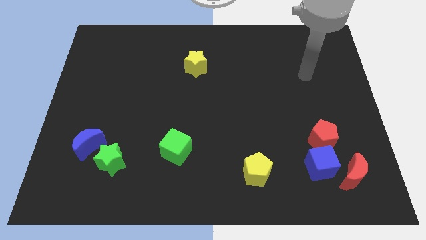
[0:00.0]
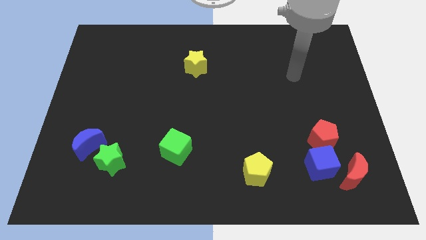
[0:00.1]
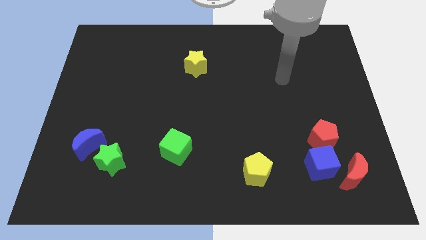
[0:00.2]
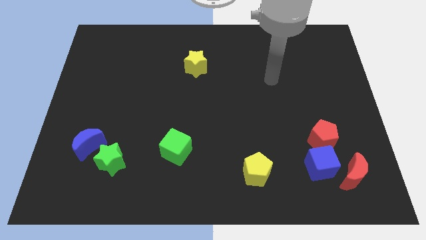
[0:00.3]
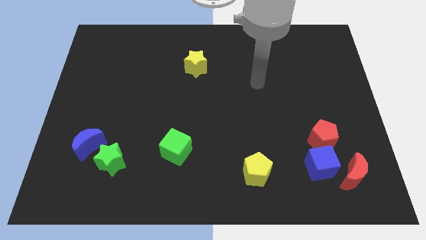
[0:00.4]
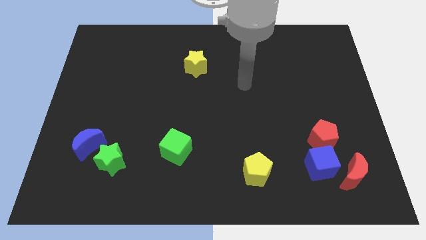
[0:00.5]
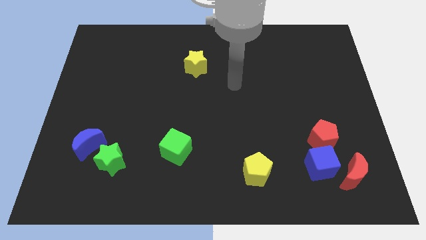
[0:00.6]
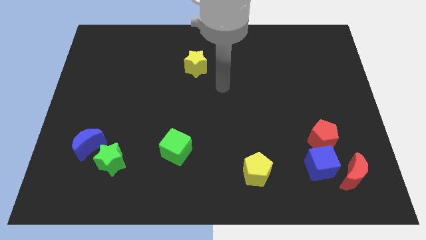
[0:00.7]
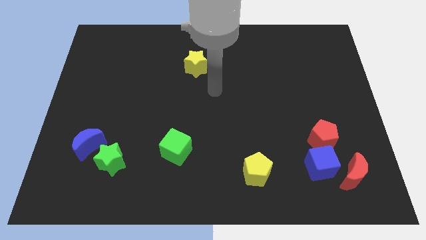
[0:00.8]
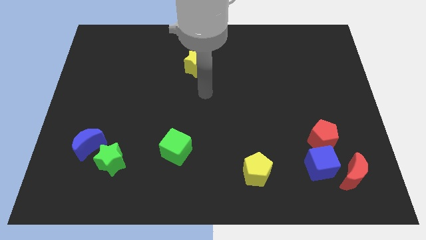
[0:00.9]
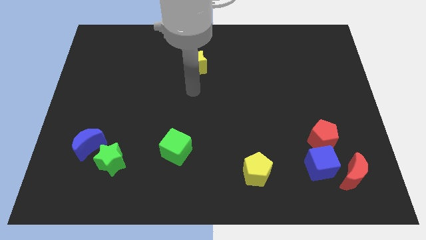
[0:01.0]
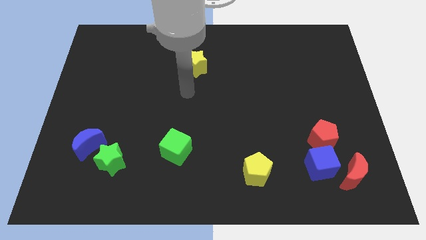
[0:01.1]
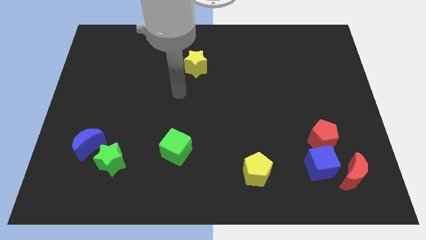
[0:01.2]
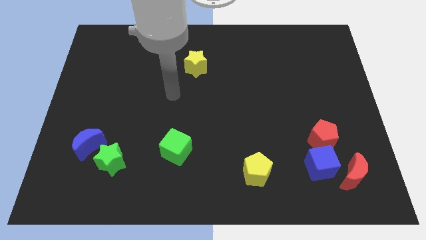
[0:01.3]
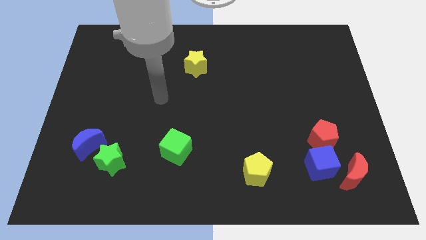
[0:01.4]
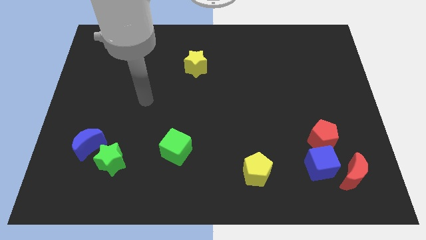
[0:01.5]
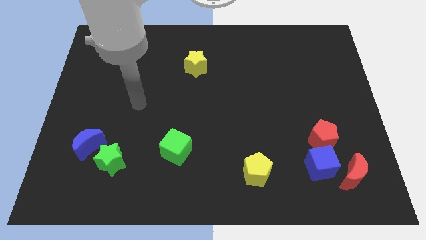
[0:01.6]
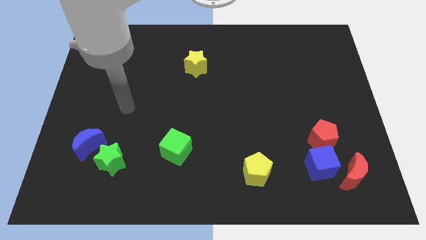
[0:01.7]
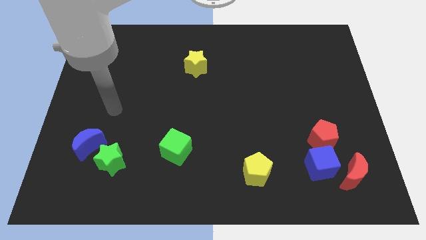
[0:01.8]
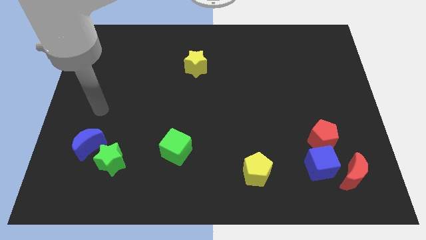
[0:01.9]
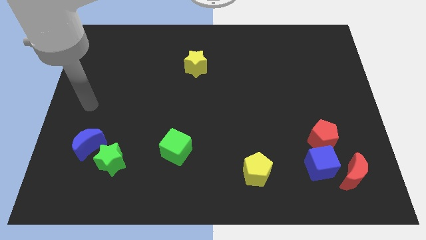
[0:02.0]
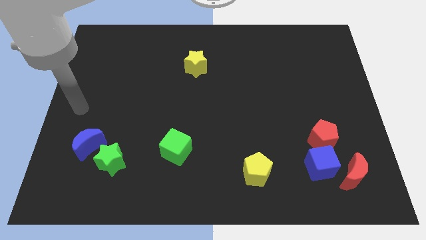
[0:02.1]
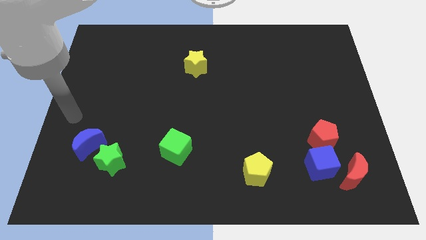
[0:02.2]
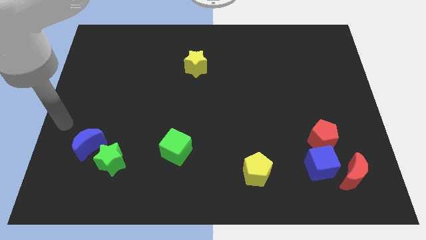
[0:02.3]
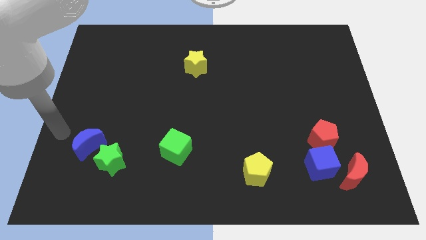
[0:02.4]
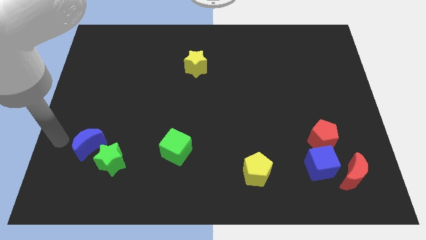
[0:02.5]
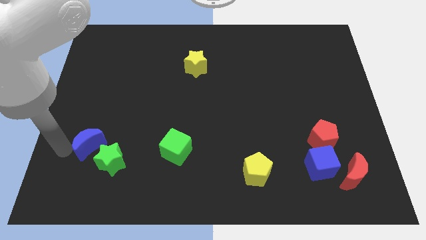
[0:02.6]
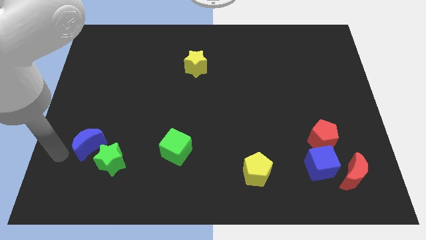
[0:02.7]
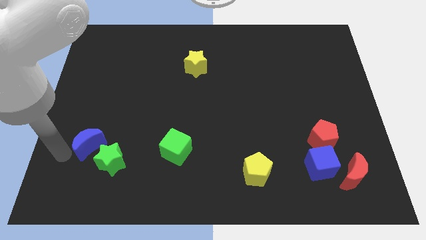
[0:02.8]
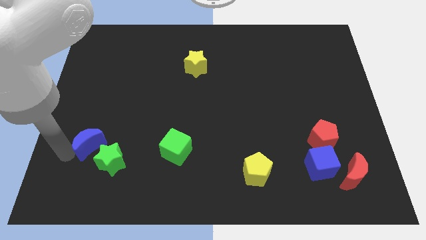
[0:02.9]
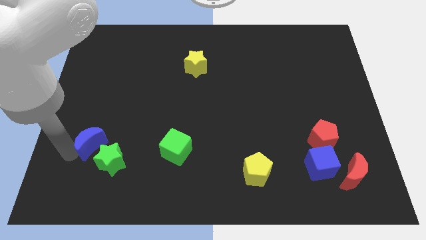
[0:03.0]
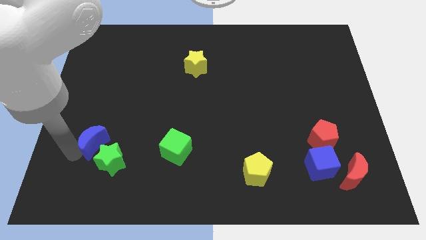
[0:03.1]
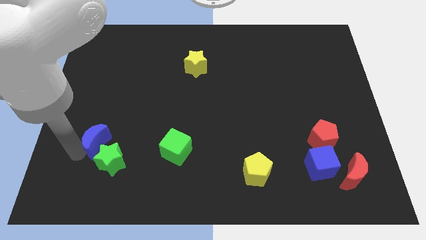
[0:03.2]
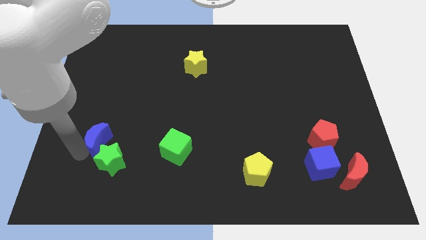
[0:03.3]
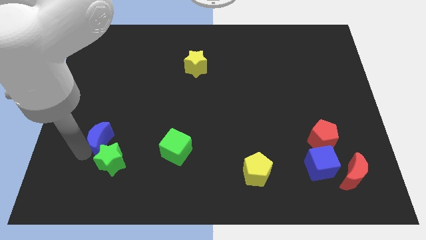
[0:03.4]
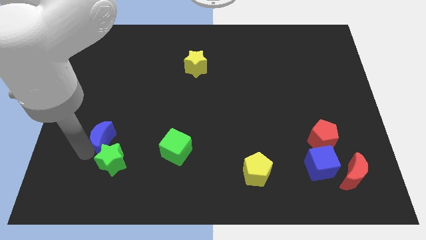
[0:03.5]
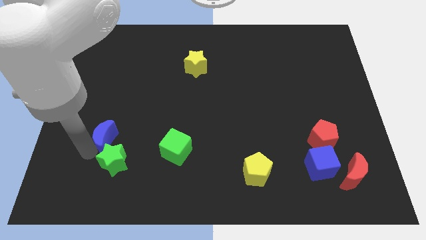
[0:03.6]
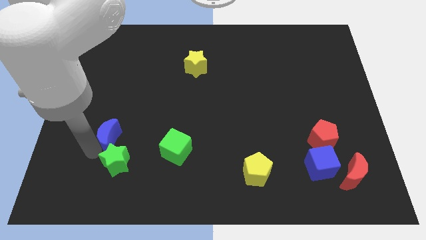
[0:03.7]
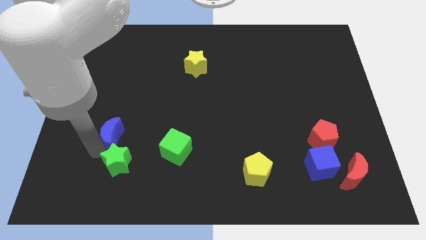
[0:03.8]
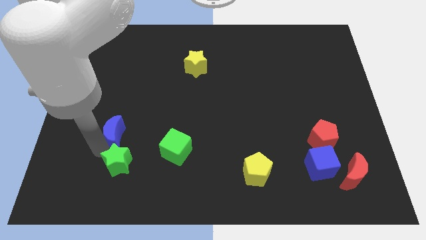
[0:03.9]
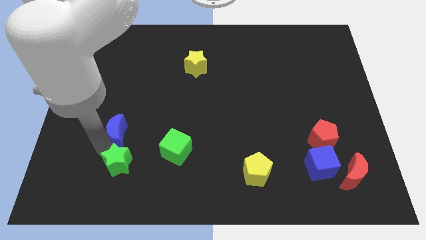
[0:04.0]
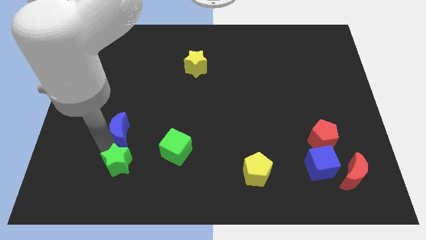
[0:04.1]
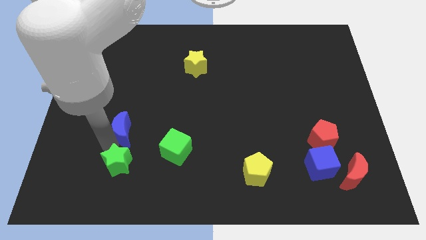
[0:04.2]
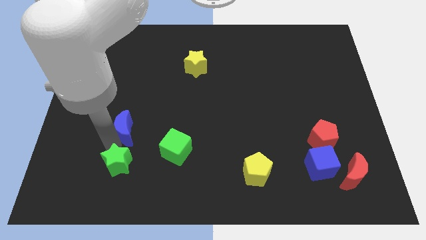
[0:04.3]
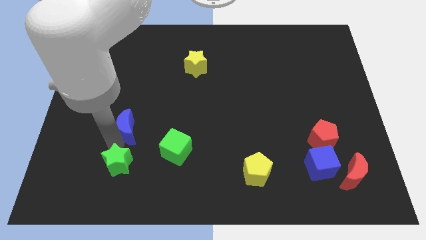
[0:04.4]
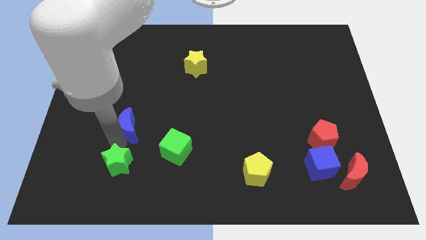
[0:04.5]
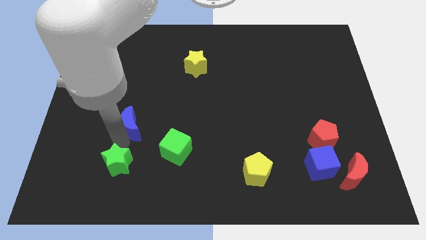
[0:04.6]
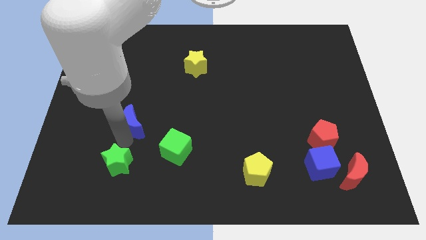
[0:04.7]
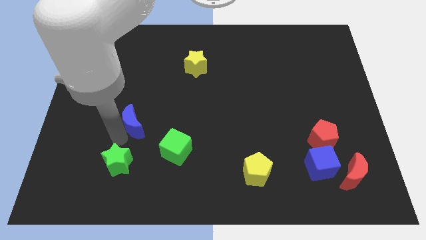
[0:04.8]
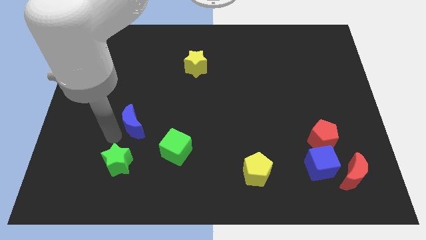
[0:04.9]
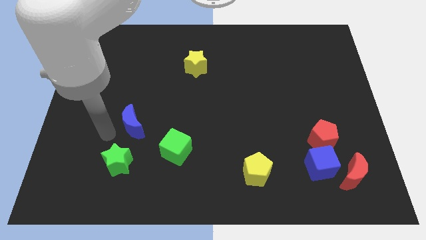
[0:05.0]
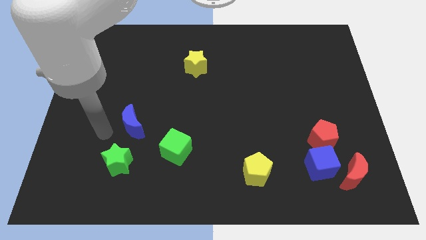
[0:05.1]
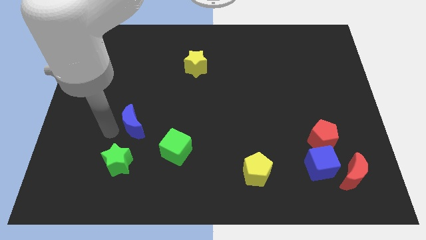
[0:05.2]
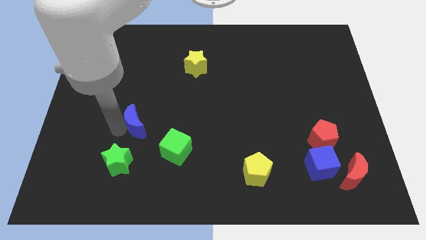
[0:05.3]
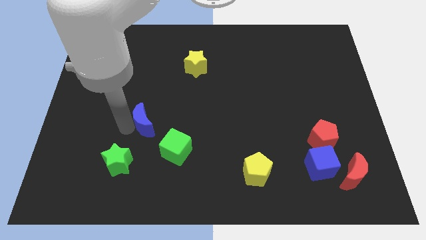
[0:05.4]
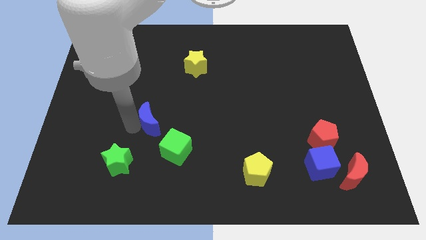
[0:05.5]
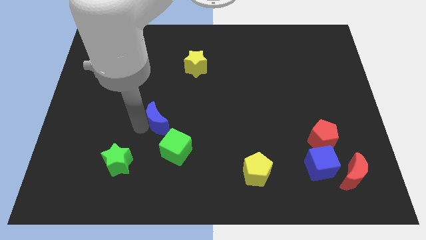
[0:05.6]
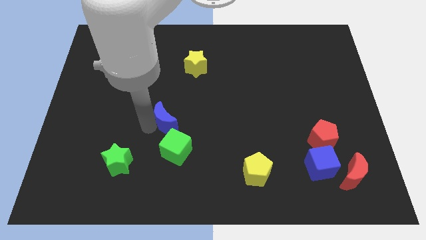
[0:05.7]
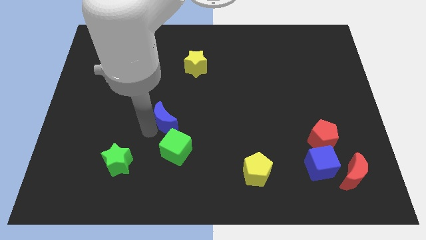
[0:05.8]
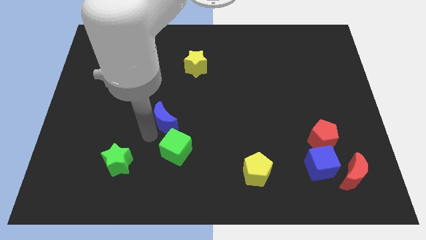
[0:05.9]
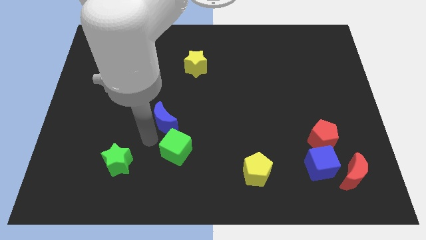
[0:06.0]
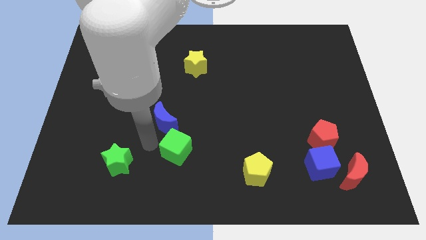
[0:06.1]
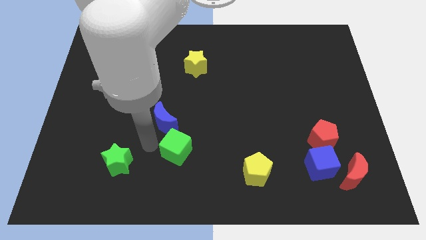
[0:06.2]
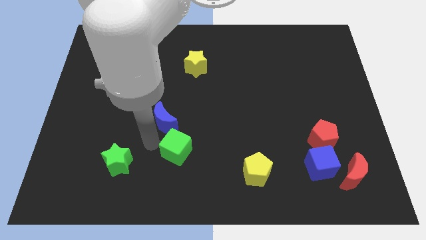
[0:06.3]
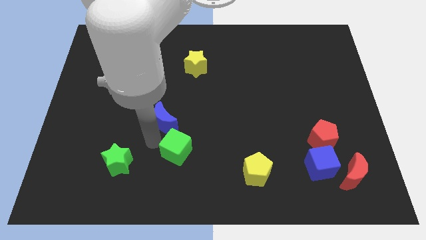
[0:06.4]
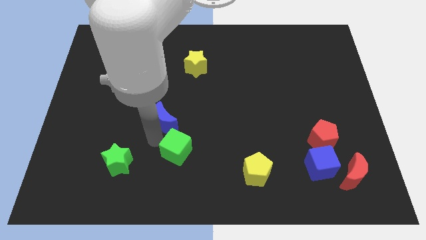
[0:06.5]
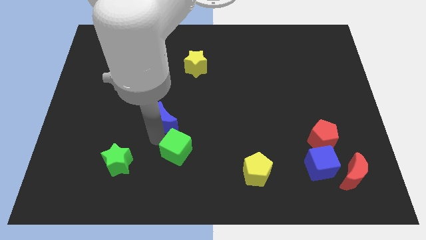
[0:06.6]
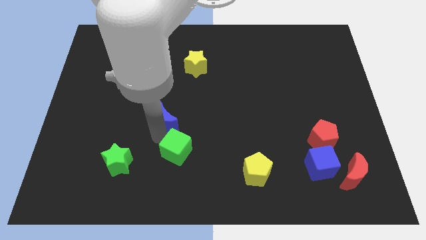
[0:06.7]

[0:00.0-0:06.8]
put the blue moon to the center of the board
